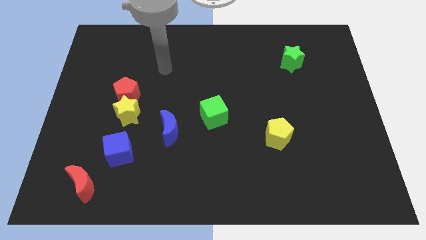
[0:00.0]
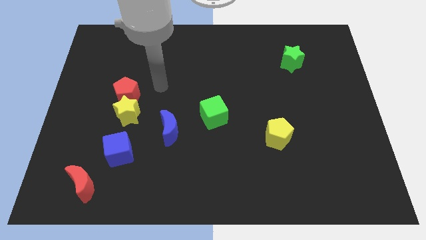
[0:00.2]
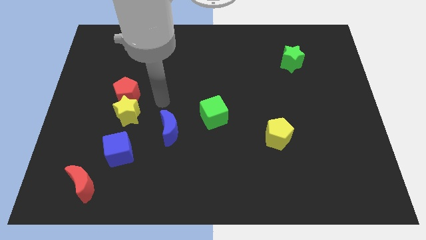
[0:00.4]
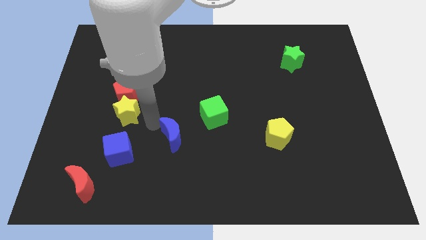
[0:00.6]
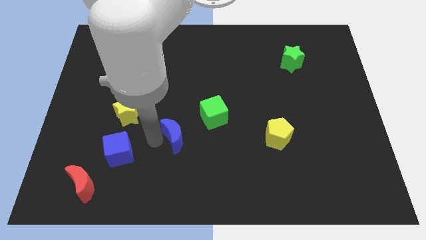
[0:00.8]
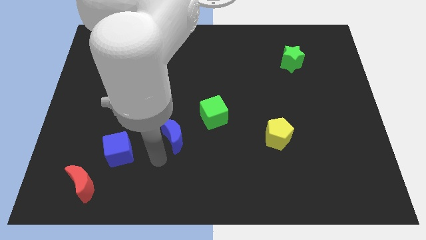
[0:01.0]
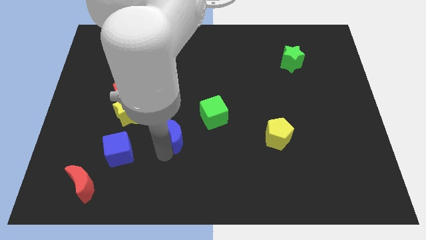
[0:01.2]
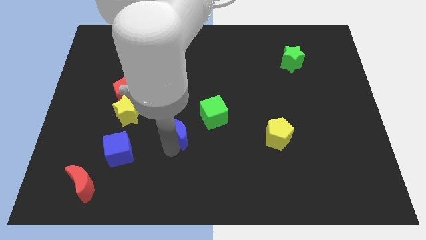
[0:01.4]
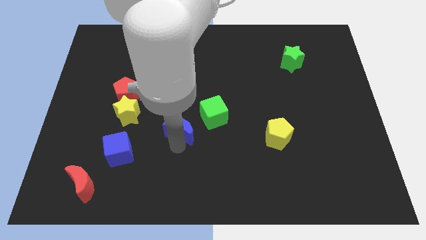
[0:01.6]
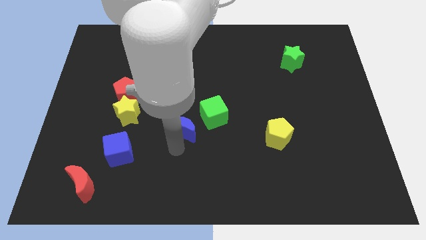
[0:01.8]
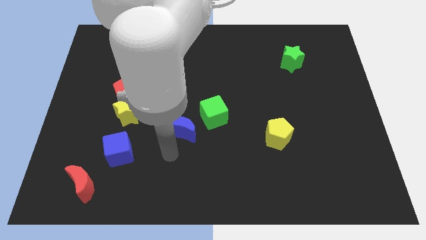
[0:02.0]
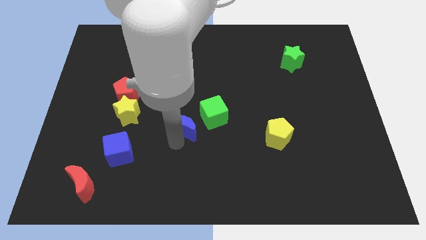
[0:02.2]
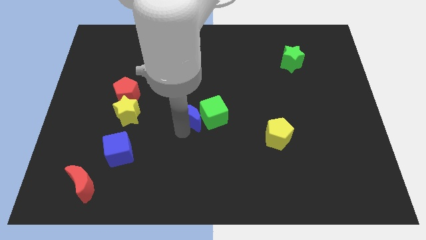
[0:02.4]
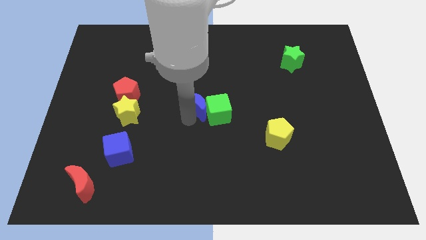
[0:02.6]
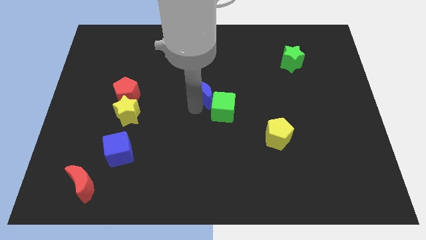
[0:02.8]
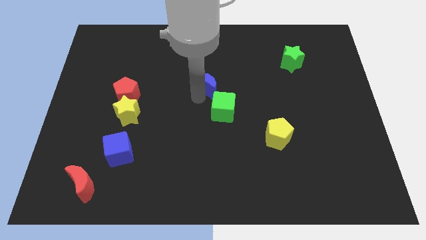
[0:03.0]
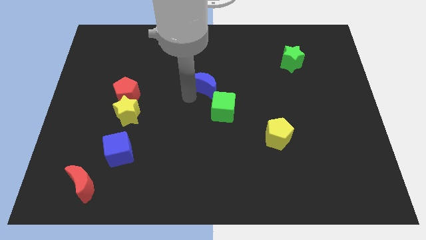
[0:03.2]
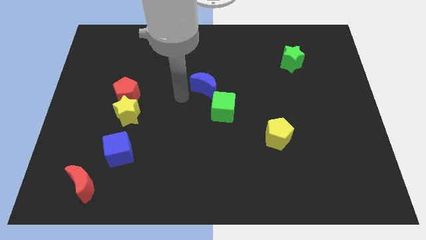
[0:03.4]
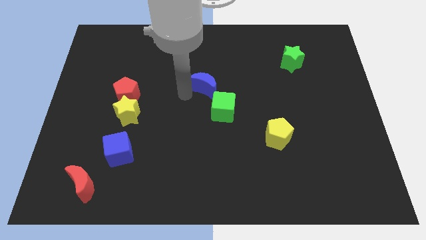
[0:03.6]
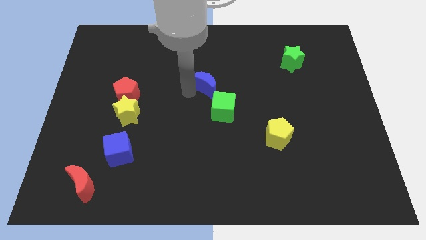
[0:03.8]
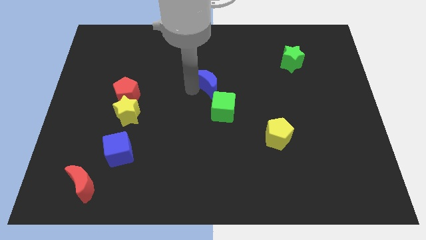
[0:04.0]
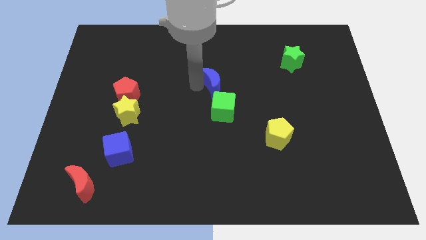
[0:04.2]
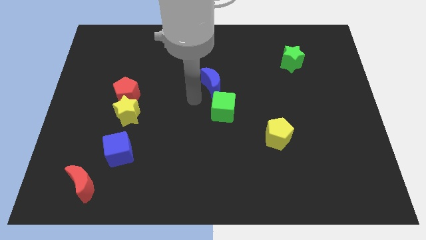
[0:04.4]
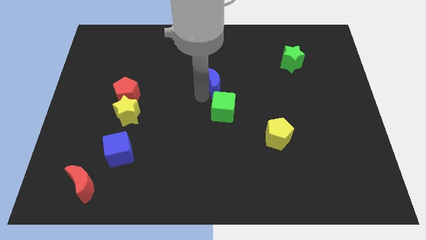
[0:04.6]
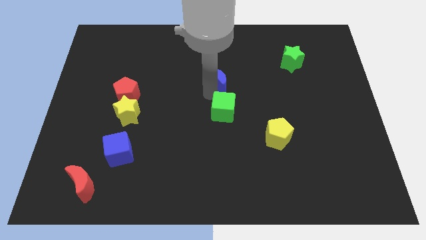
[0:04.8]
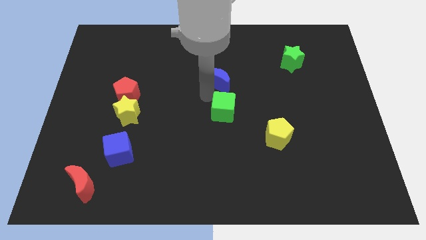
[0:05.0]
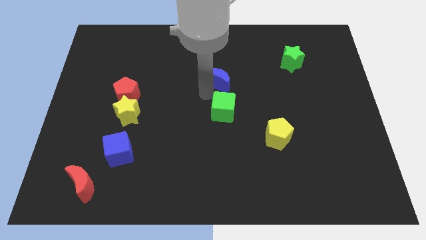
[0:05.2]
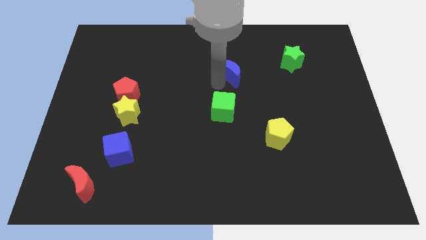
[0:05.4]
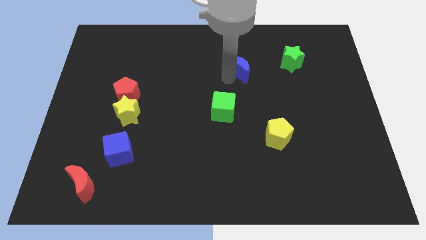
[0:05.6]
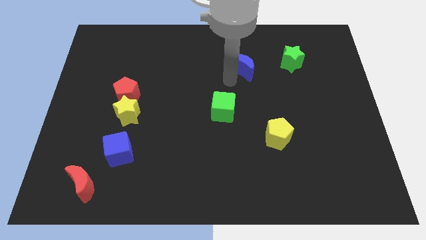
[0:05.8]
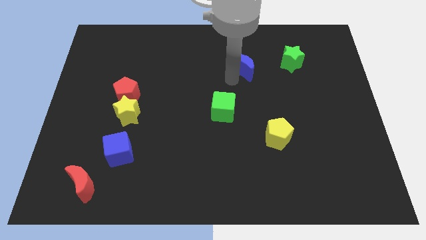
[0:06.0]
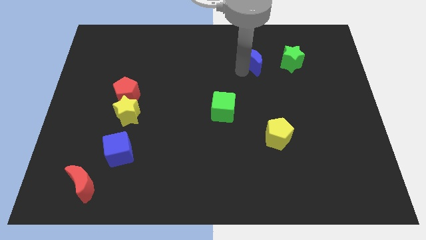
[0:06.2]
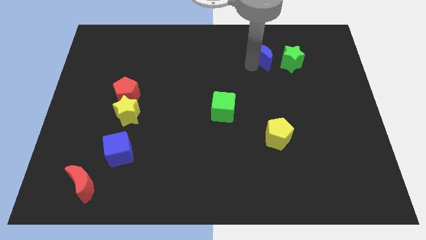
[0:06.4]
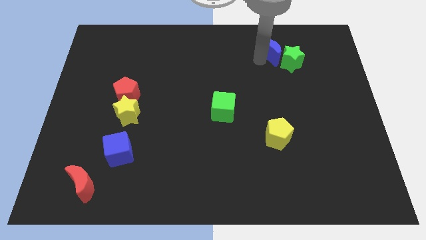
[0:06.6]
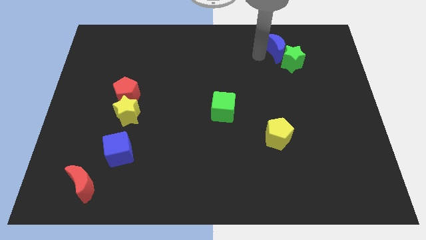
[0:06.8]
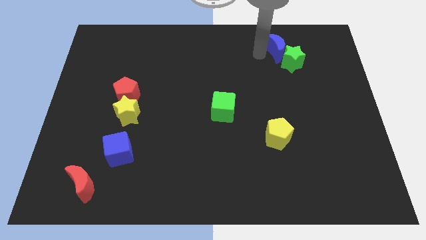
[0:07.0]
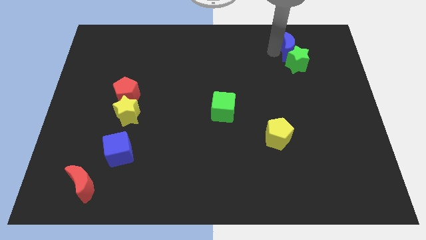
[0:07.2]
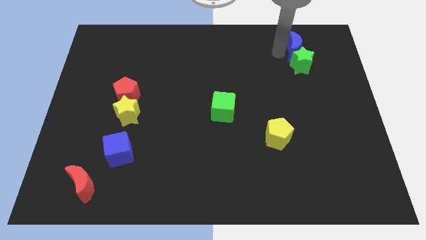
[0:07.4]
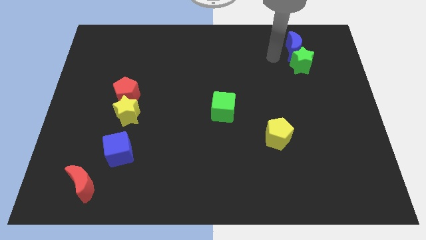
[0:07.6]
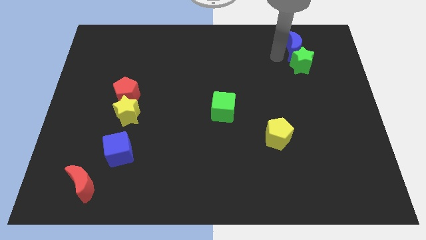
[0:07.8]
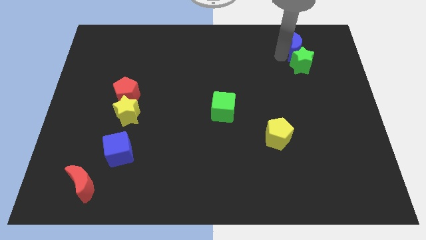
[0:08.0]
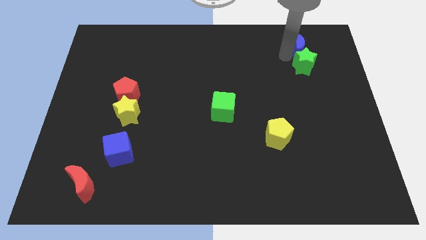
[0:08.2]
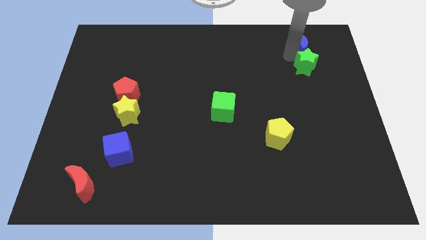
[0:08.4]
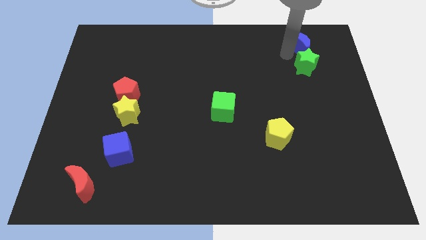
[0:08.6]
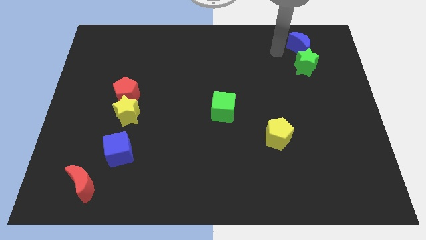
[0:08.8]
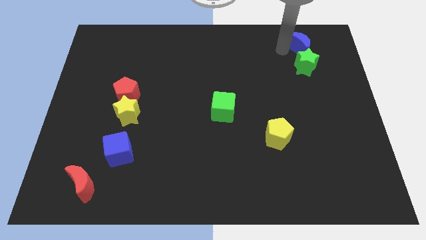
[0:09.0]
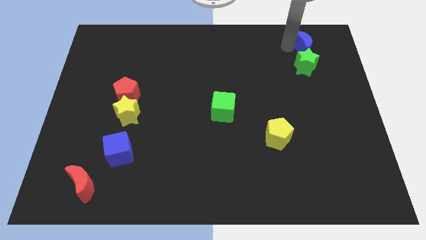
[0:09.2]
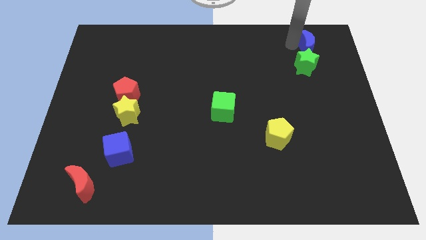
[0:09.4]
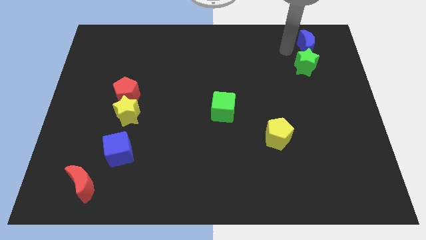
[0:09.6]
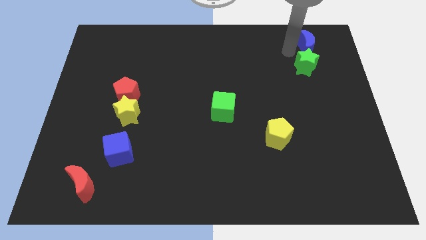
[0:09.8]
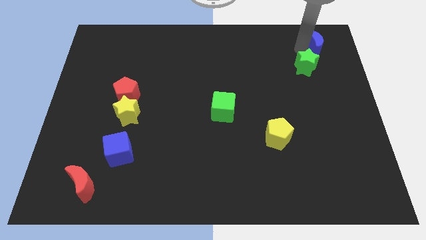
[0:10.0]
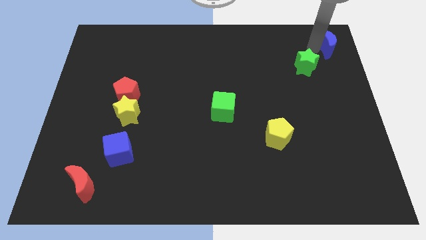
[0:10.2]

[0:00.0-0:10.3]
slide the blue moon to the upper right corner

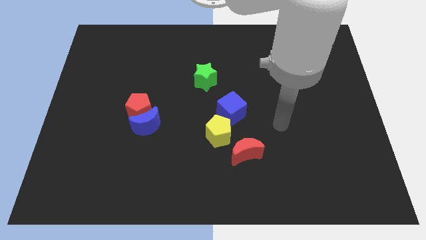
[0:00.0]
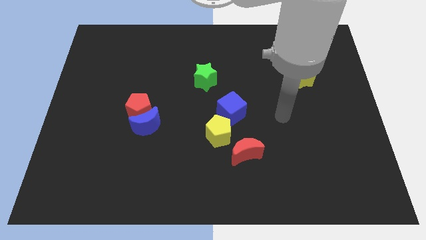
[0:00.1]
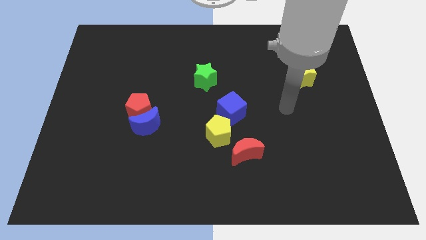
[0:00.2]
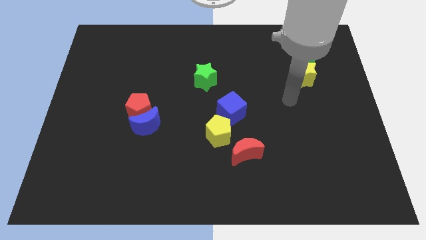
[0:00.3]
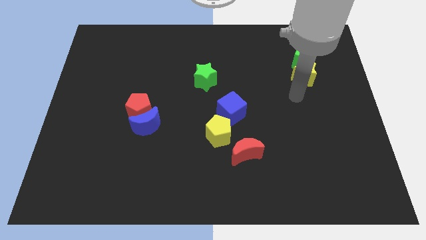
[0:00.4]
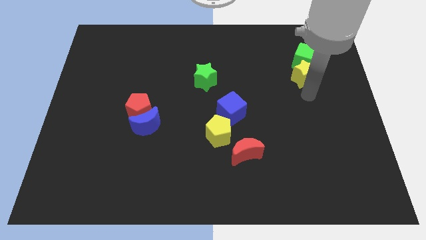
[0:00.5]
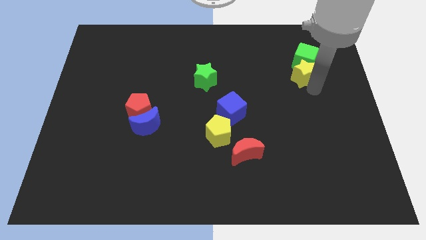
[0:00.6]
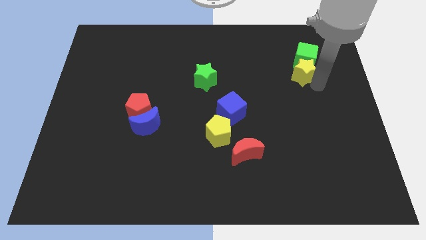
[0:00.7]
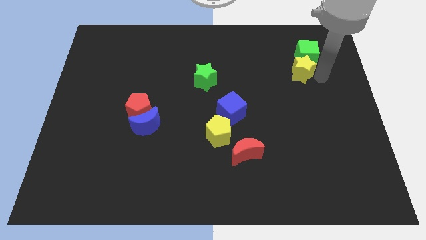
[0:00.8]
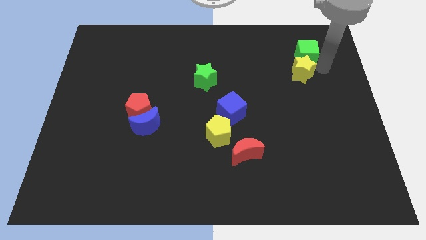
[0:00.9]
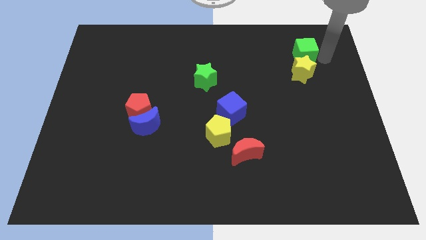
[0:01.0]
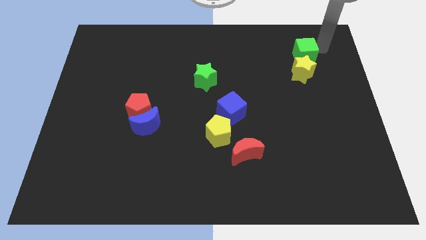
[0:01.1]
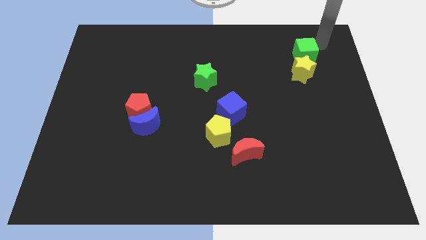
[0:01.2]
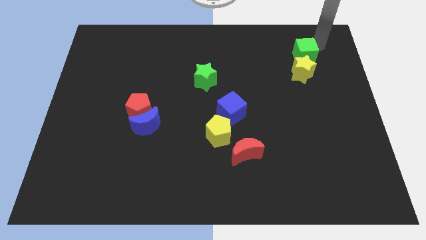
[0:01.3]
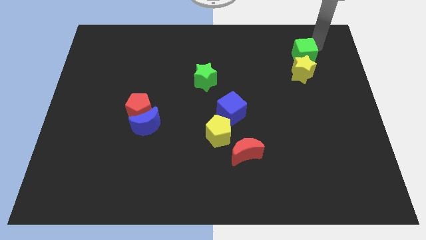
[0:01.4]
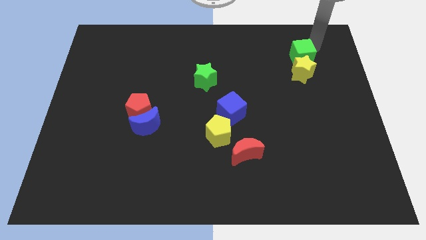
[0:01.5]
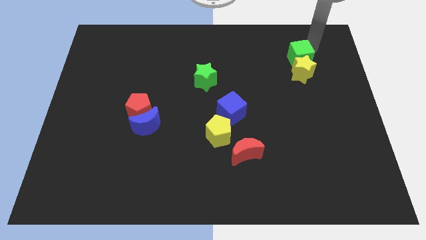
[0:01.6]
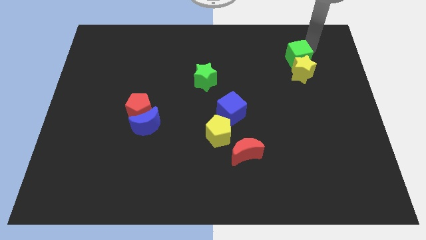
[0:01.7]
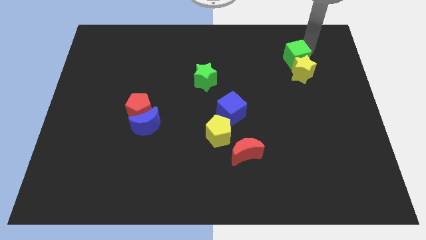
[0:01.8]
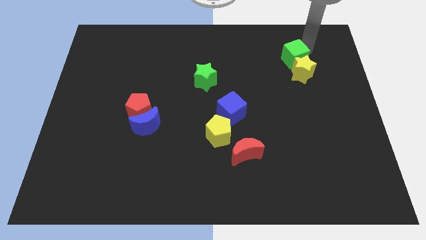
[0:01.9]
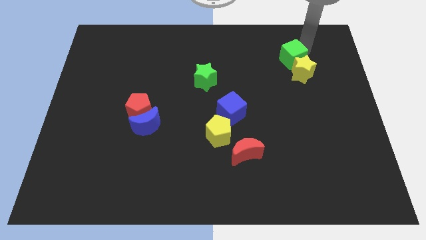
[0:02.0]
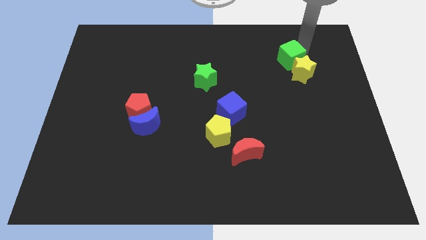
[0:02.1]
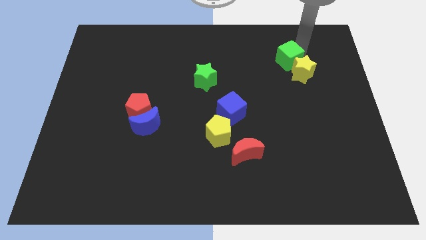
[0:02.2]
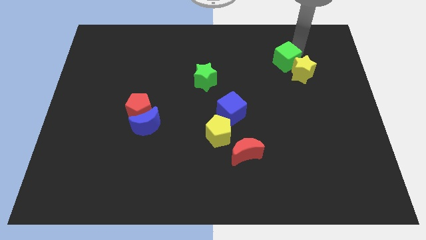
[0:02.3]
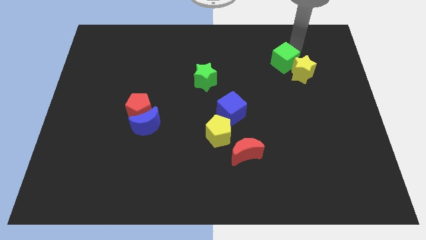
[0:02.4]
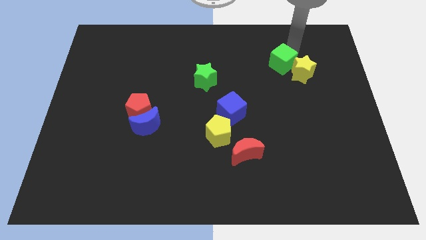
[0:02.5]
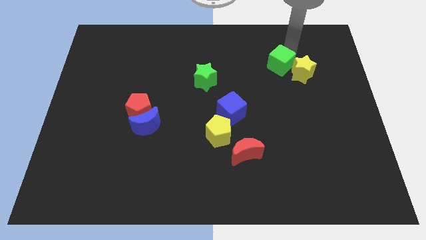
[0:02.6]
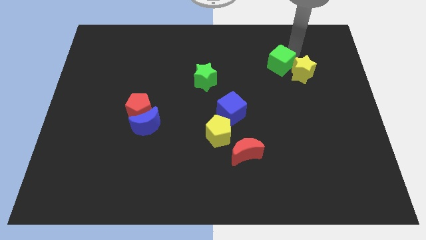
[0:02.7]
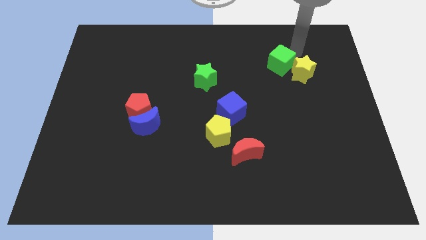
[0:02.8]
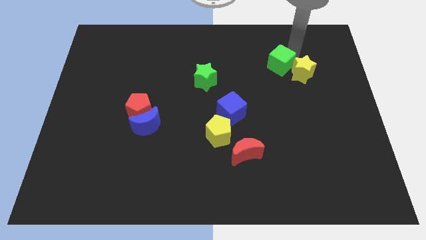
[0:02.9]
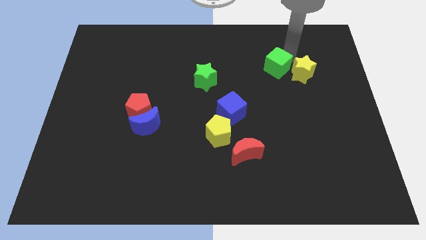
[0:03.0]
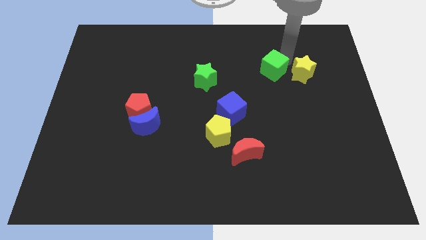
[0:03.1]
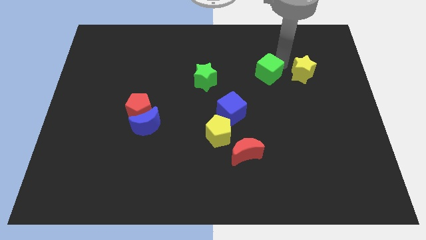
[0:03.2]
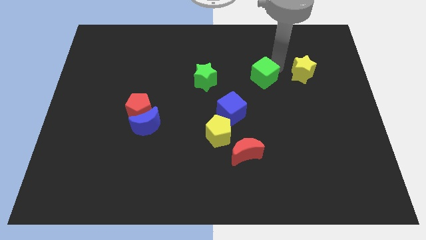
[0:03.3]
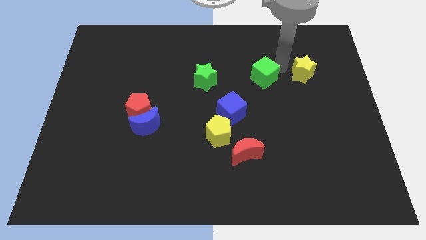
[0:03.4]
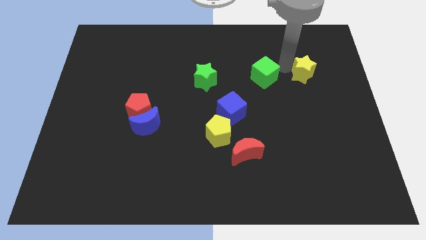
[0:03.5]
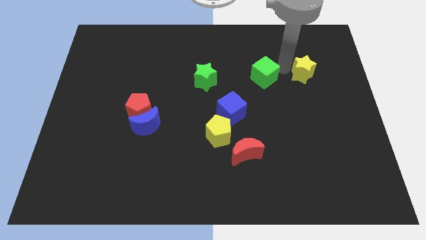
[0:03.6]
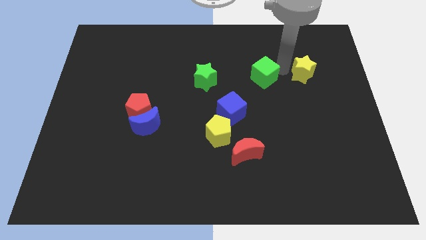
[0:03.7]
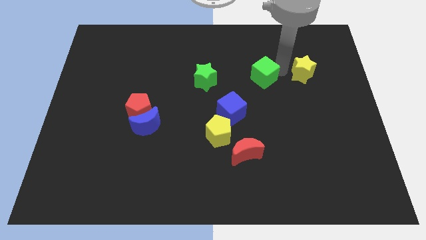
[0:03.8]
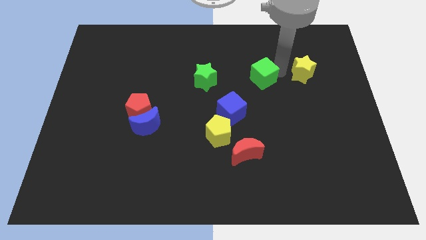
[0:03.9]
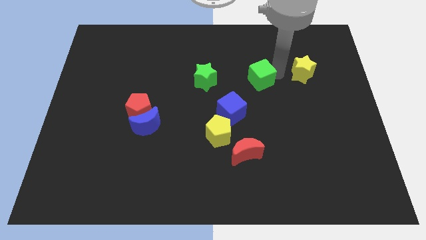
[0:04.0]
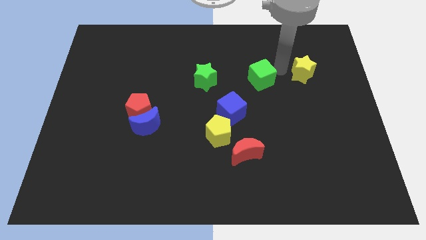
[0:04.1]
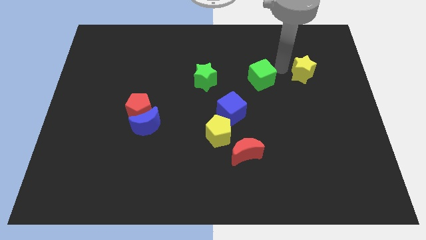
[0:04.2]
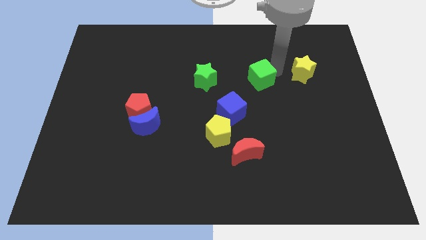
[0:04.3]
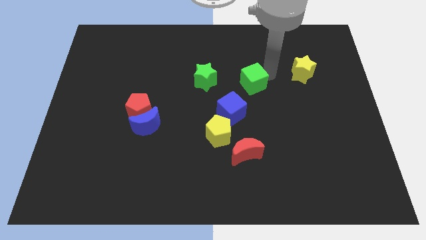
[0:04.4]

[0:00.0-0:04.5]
push the green cube to the center of the board
